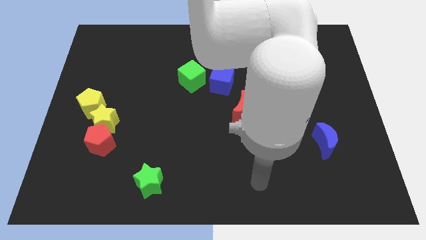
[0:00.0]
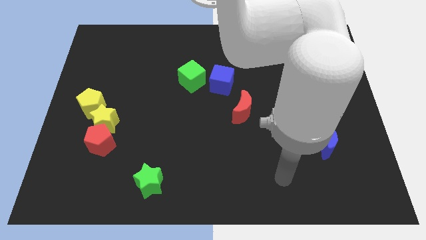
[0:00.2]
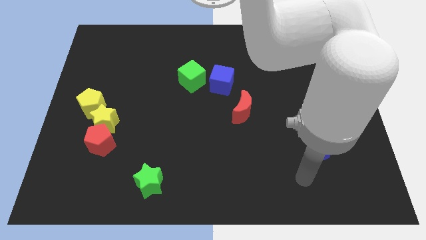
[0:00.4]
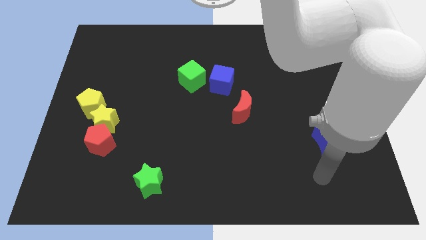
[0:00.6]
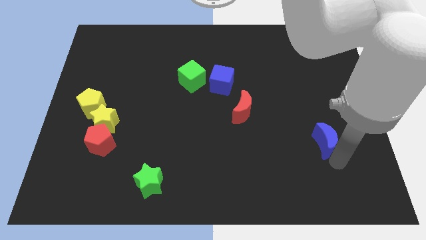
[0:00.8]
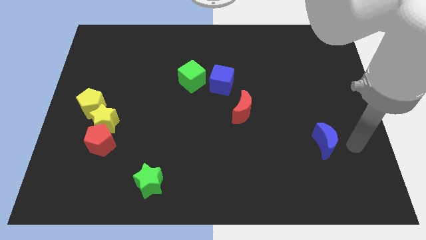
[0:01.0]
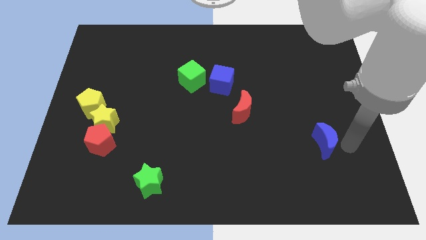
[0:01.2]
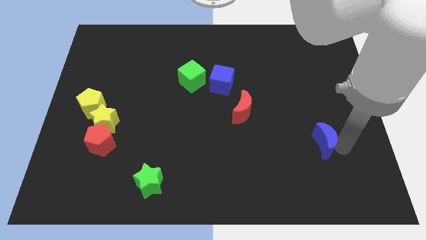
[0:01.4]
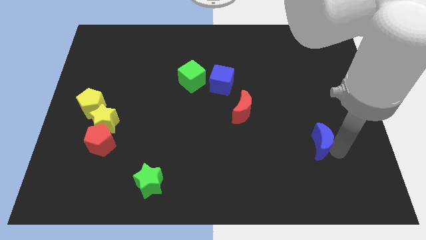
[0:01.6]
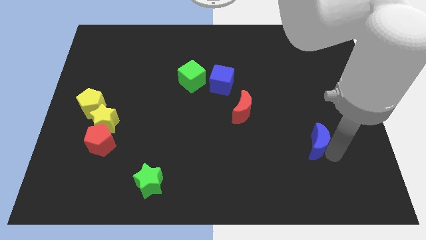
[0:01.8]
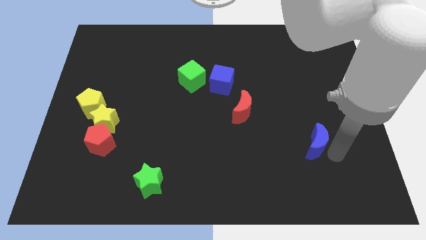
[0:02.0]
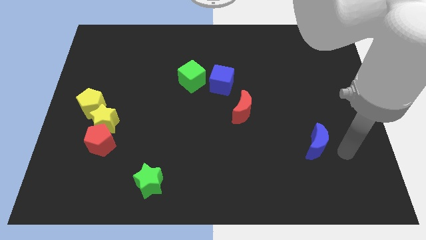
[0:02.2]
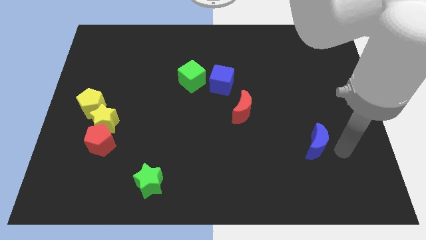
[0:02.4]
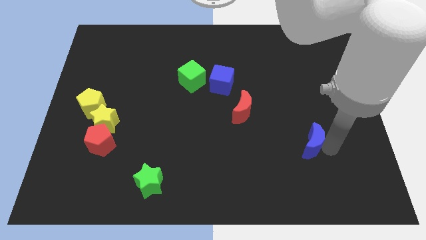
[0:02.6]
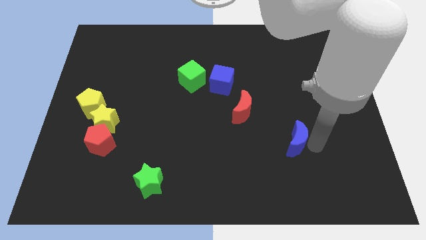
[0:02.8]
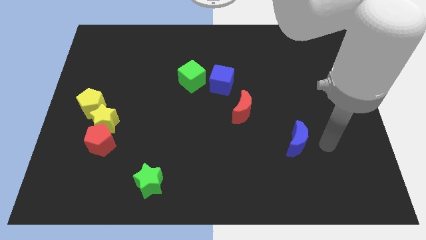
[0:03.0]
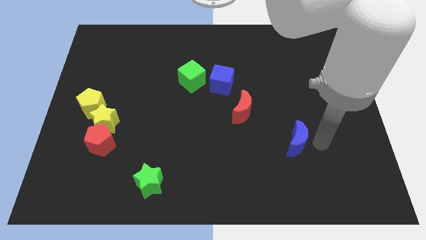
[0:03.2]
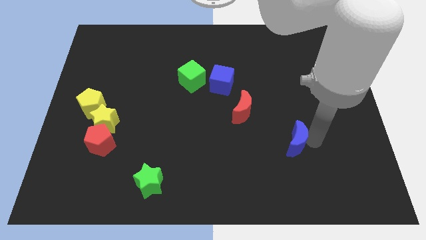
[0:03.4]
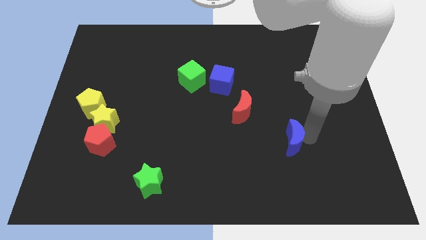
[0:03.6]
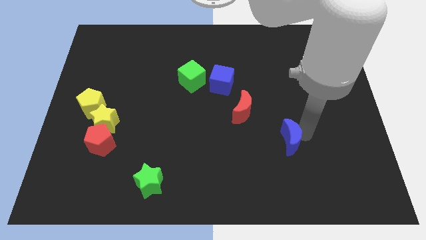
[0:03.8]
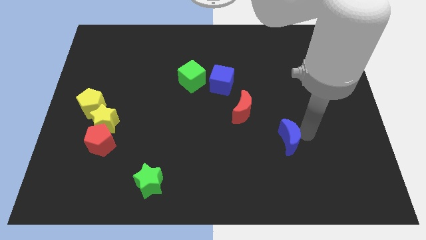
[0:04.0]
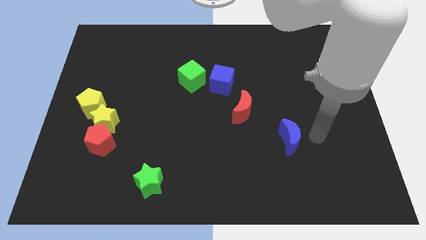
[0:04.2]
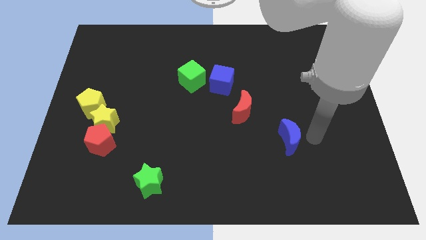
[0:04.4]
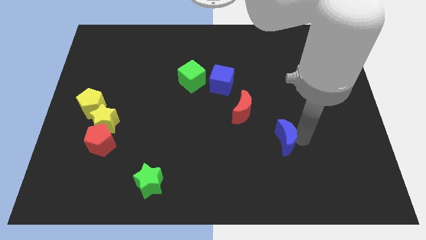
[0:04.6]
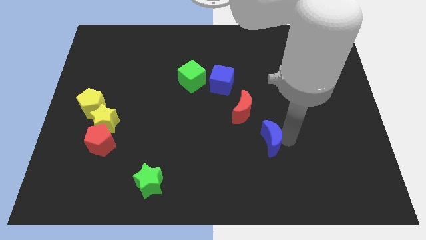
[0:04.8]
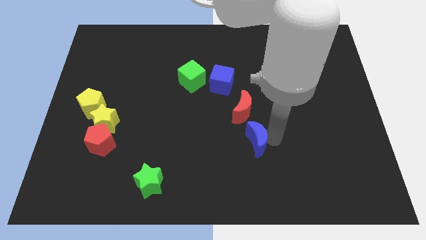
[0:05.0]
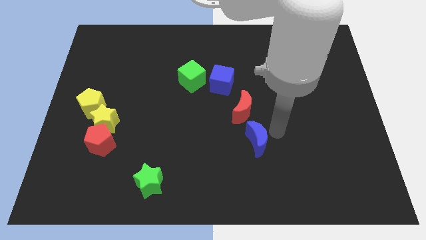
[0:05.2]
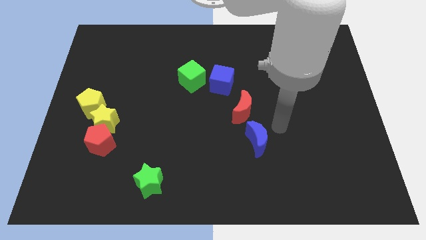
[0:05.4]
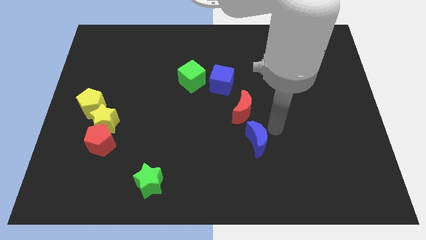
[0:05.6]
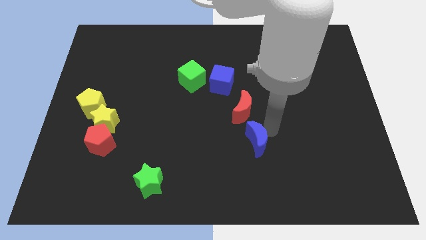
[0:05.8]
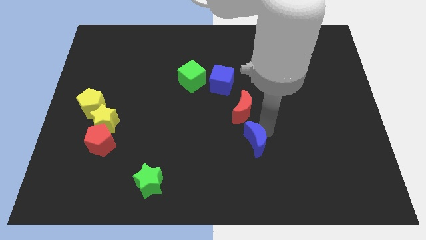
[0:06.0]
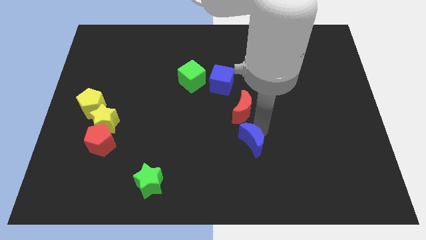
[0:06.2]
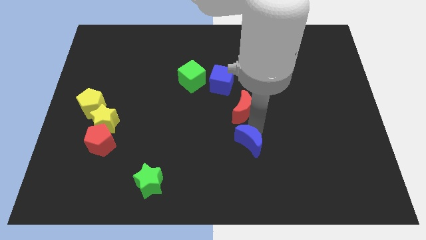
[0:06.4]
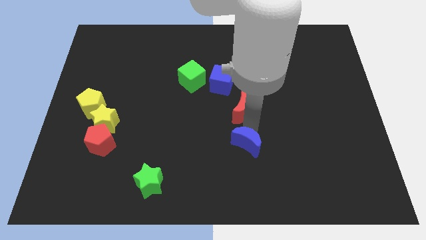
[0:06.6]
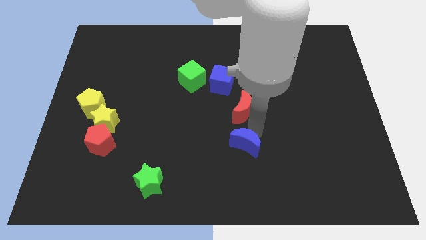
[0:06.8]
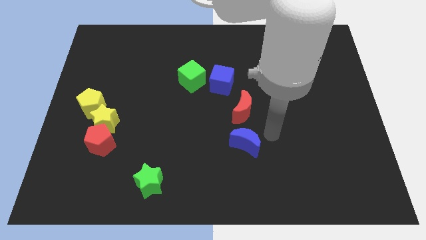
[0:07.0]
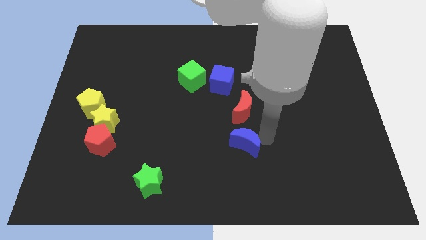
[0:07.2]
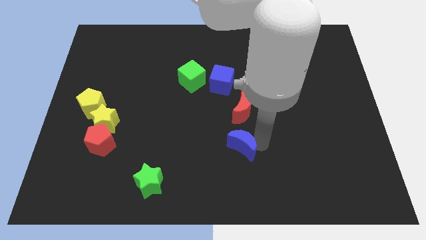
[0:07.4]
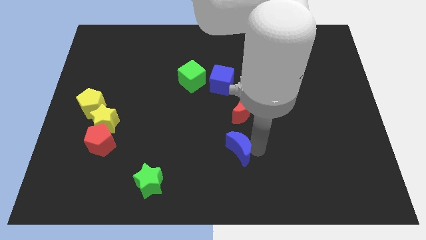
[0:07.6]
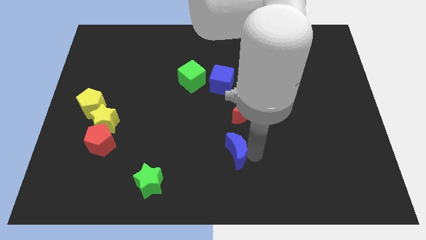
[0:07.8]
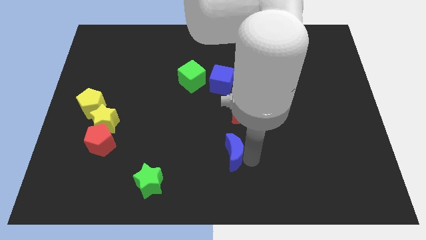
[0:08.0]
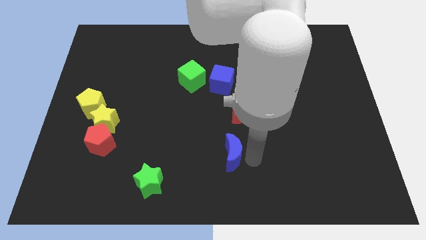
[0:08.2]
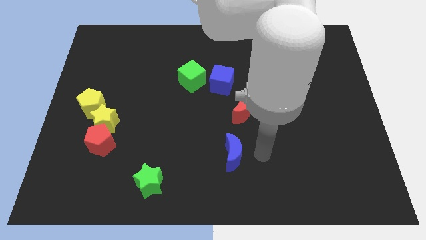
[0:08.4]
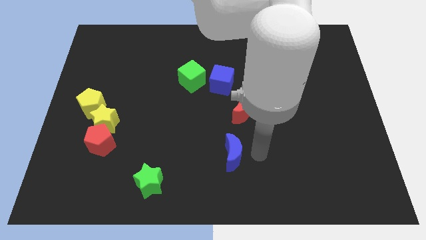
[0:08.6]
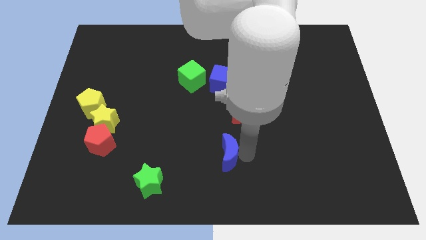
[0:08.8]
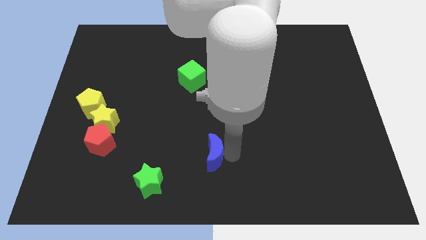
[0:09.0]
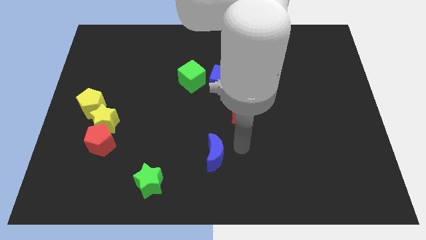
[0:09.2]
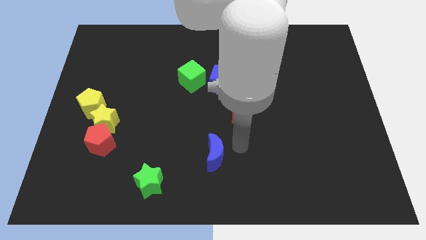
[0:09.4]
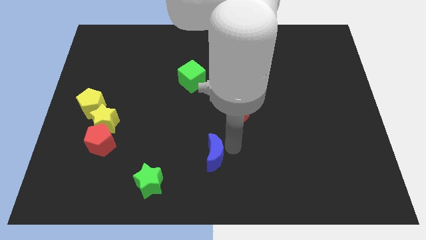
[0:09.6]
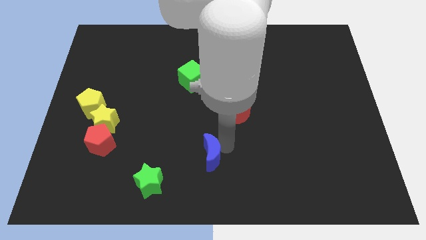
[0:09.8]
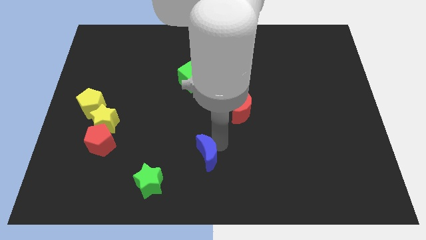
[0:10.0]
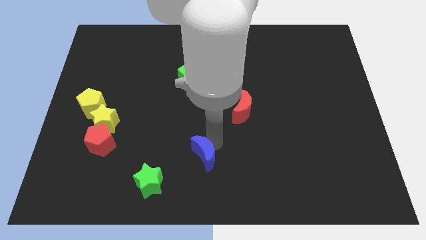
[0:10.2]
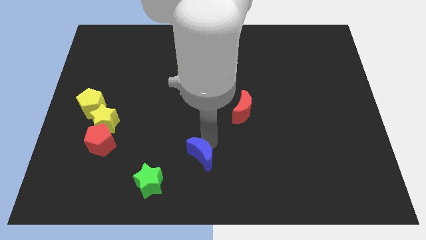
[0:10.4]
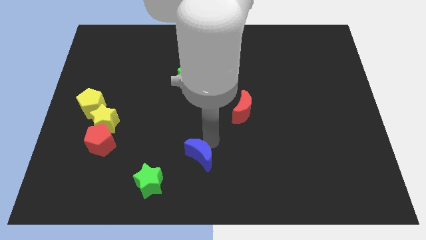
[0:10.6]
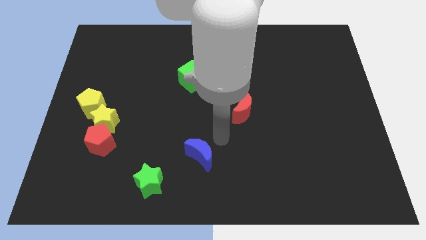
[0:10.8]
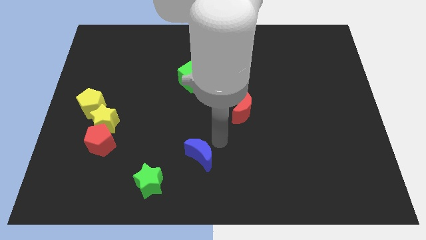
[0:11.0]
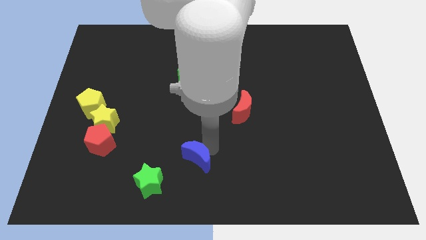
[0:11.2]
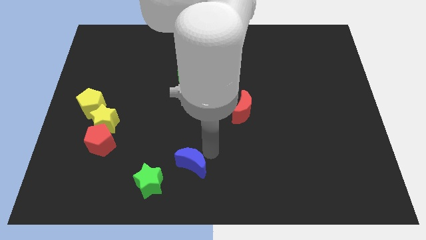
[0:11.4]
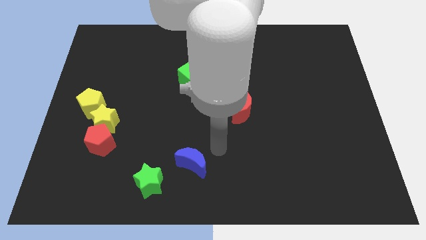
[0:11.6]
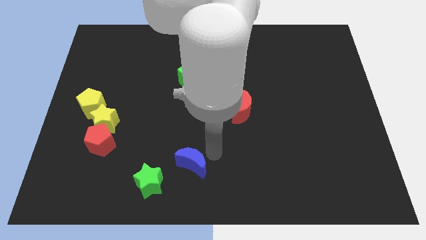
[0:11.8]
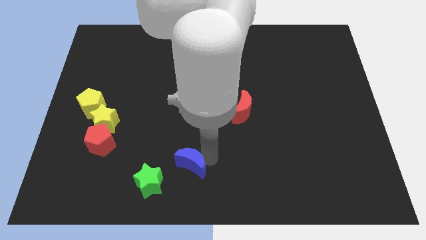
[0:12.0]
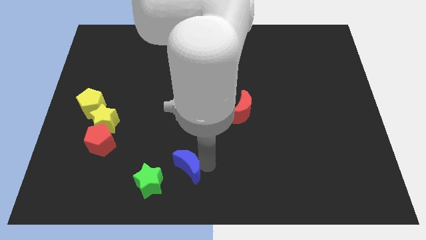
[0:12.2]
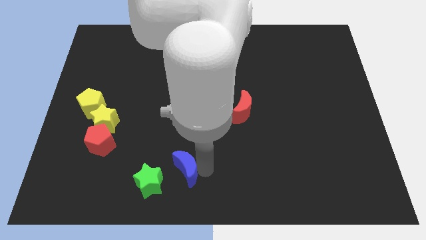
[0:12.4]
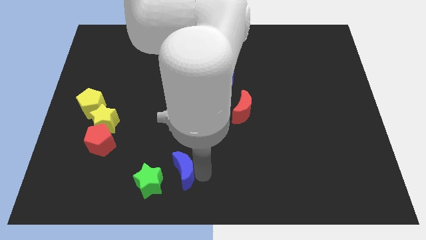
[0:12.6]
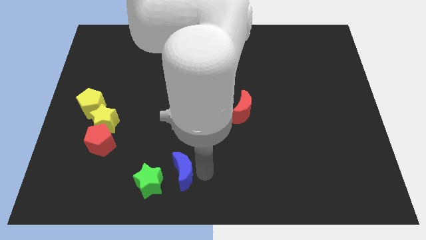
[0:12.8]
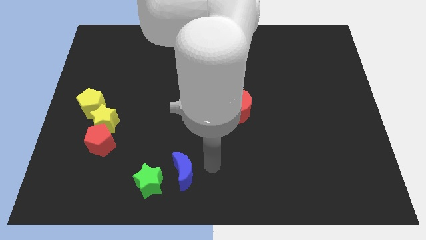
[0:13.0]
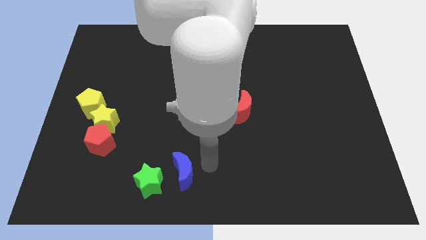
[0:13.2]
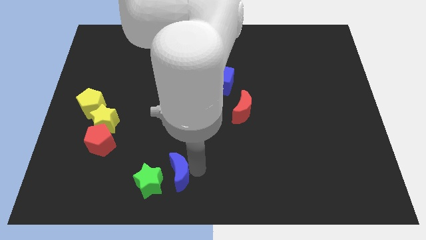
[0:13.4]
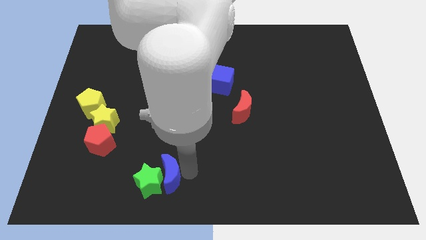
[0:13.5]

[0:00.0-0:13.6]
slide the blue moon to the green star

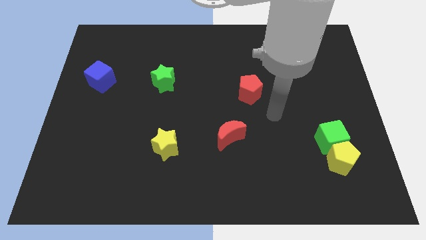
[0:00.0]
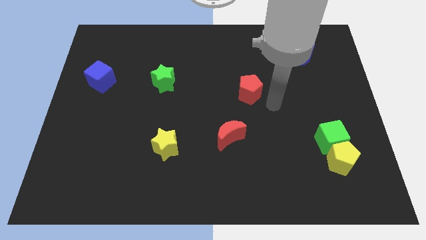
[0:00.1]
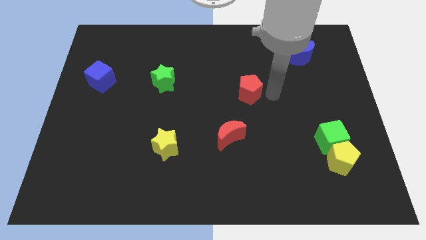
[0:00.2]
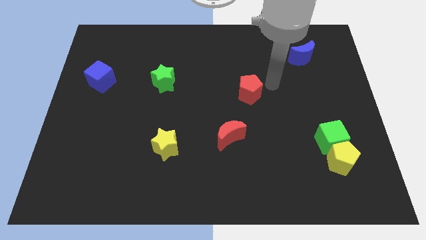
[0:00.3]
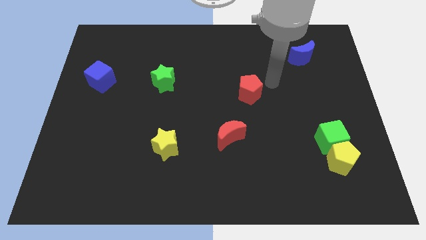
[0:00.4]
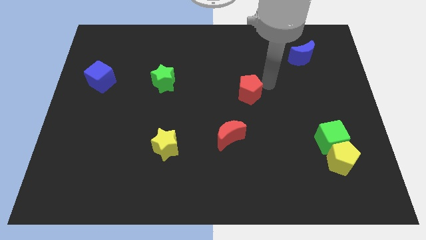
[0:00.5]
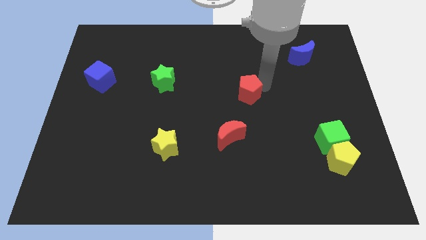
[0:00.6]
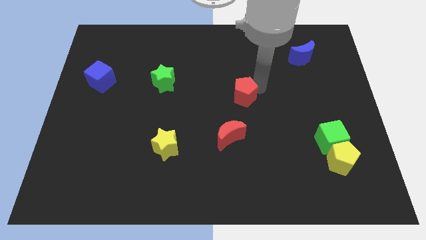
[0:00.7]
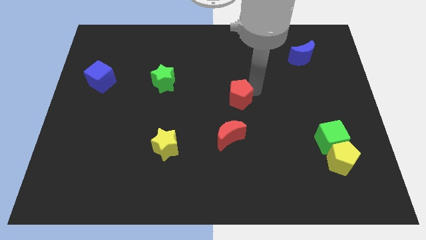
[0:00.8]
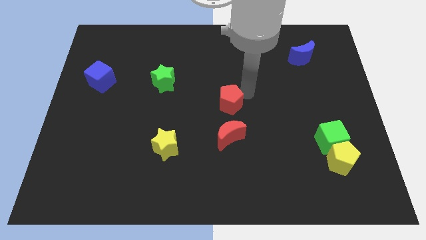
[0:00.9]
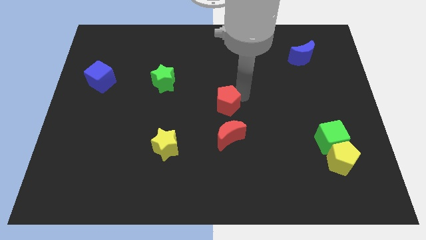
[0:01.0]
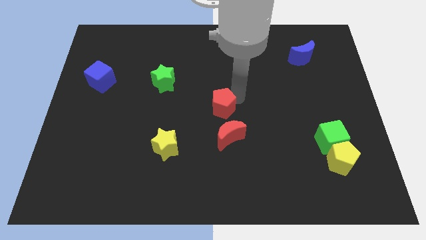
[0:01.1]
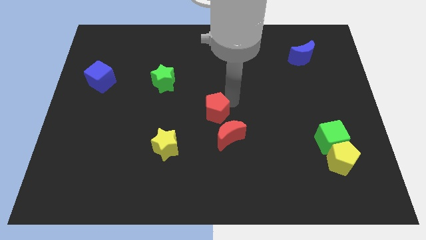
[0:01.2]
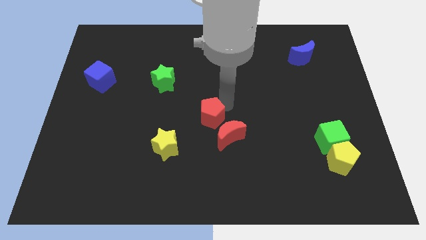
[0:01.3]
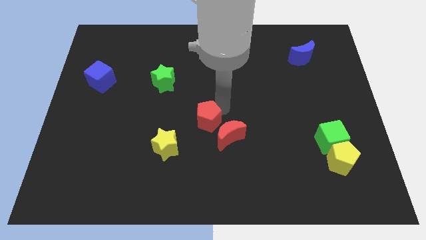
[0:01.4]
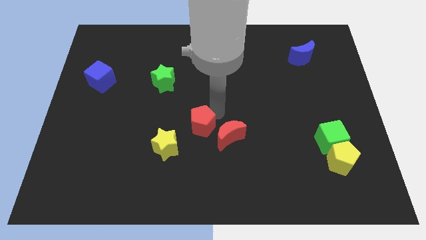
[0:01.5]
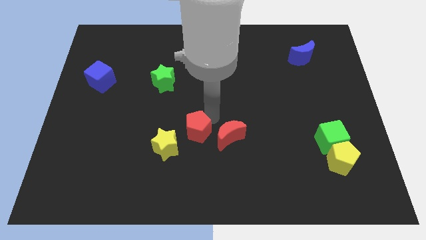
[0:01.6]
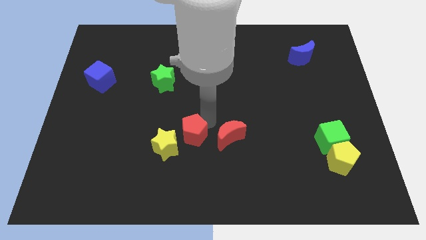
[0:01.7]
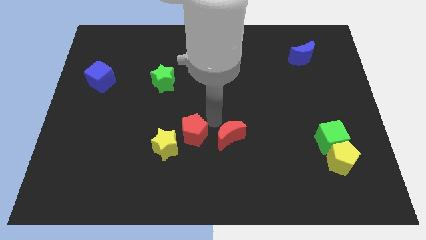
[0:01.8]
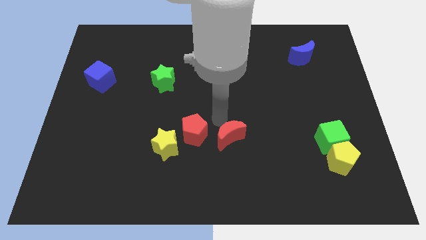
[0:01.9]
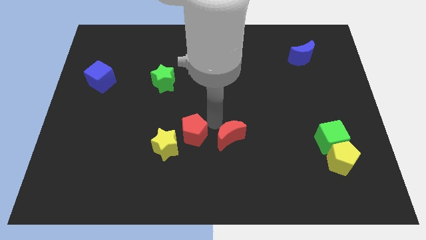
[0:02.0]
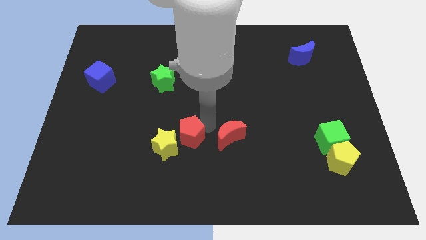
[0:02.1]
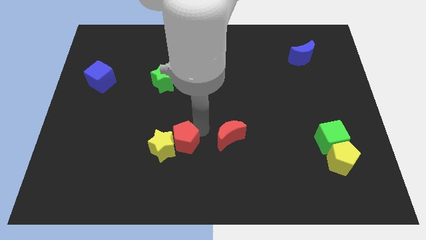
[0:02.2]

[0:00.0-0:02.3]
push the red pentagon towards the yellow star
